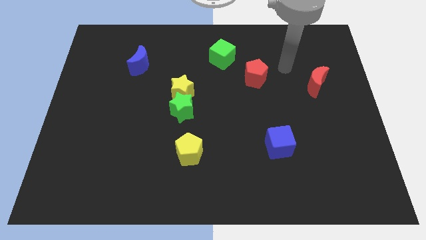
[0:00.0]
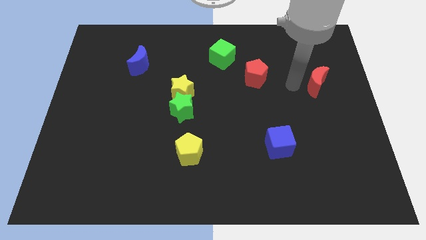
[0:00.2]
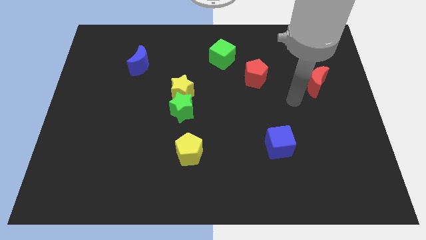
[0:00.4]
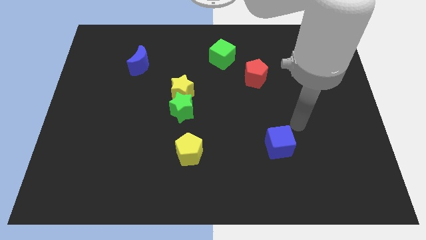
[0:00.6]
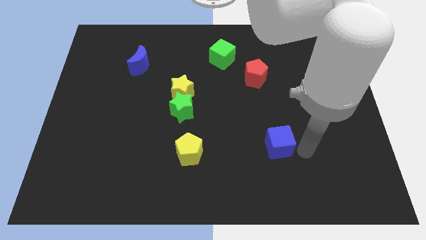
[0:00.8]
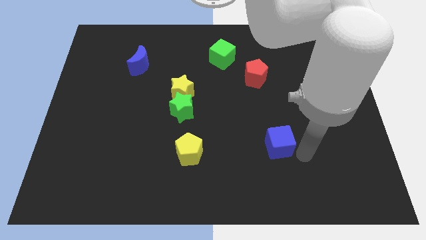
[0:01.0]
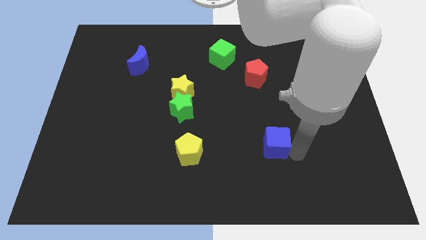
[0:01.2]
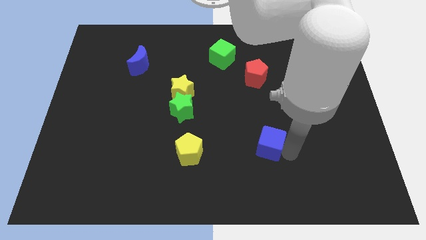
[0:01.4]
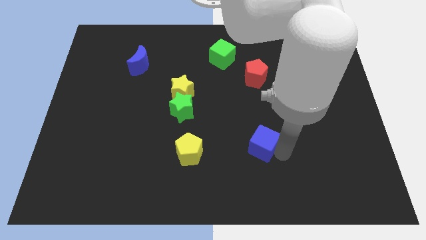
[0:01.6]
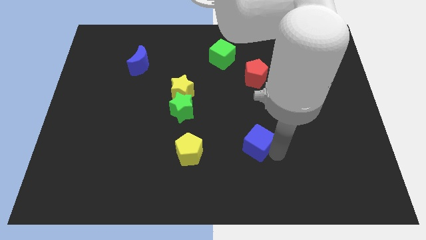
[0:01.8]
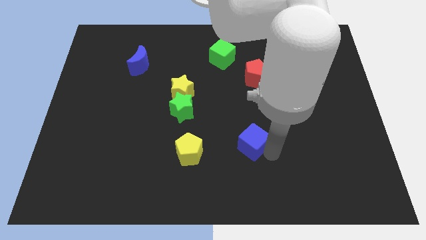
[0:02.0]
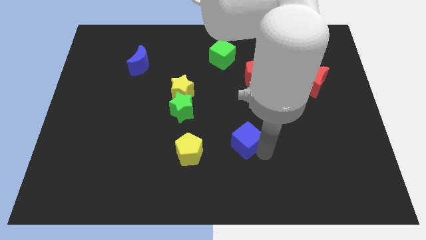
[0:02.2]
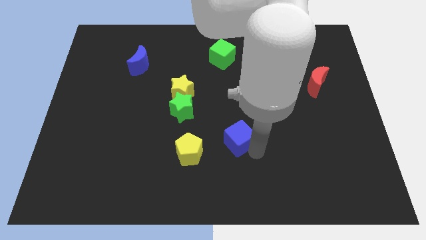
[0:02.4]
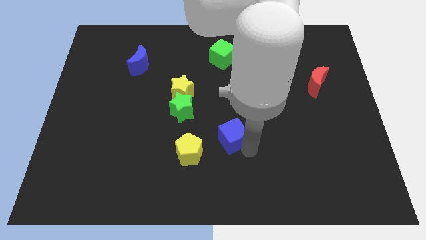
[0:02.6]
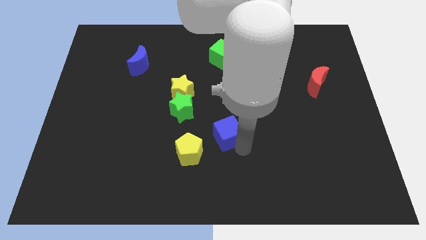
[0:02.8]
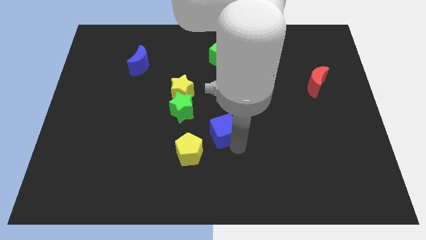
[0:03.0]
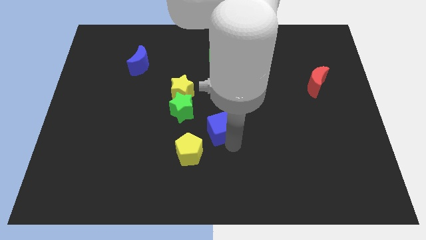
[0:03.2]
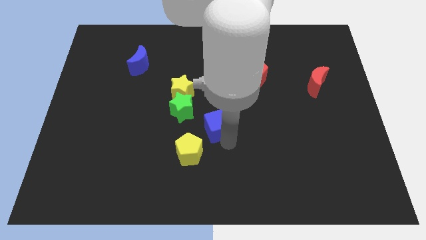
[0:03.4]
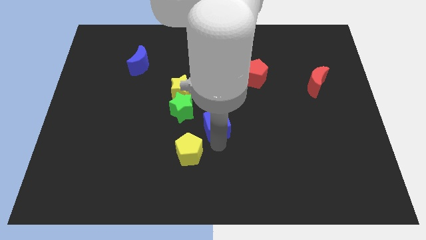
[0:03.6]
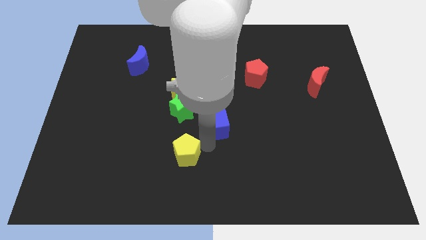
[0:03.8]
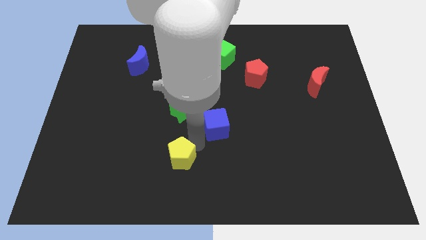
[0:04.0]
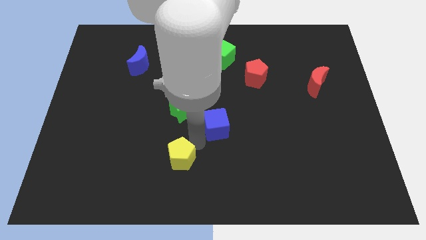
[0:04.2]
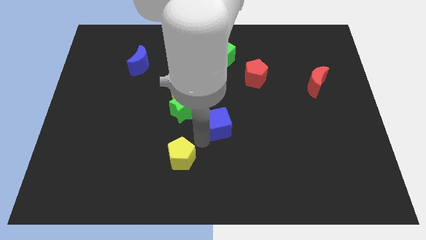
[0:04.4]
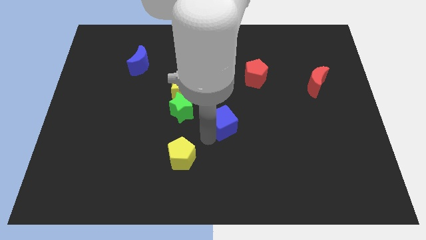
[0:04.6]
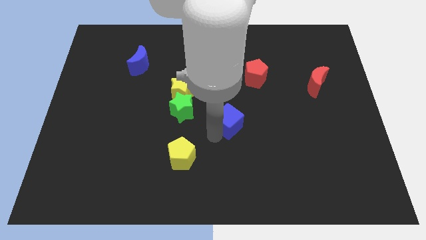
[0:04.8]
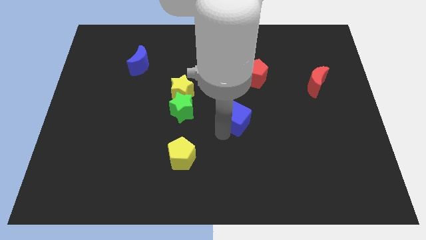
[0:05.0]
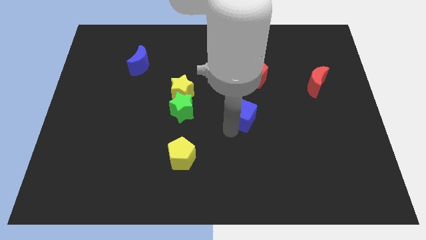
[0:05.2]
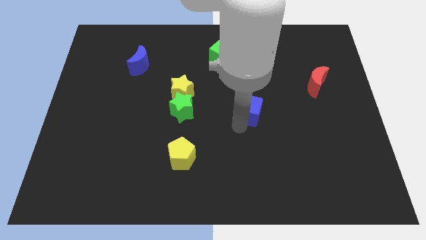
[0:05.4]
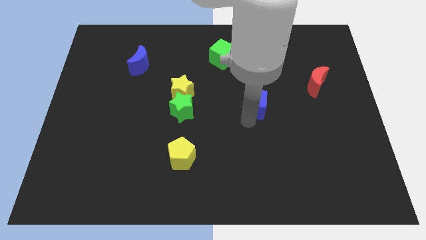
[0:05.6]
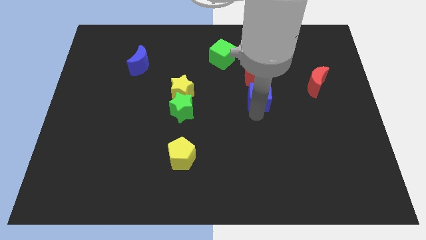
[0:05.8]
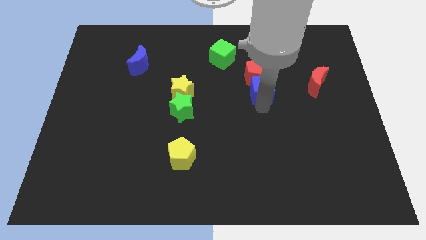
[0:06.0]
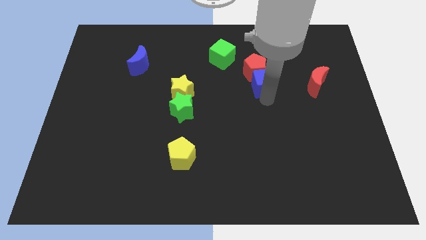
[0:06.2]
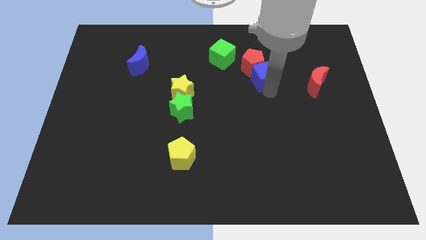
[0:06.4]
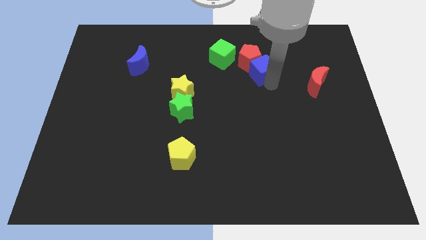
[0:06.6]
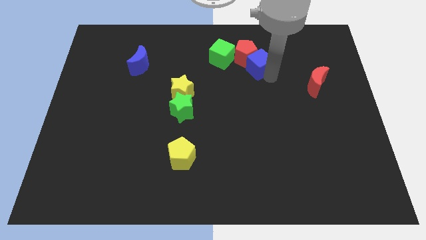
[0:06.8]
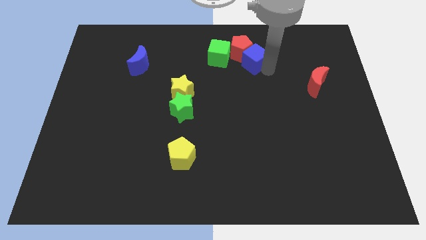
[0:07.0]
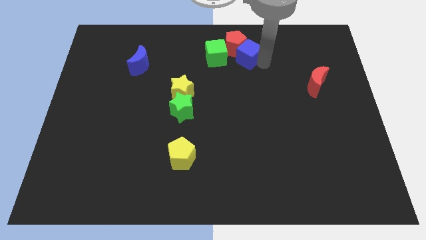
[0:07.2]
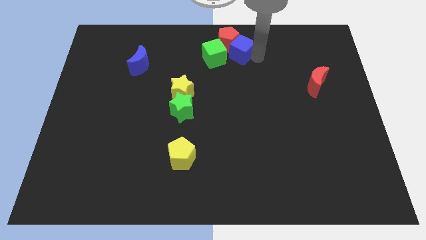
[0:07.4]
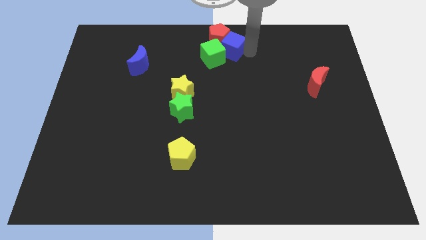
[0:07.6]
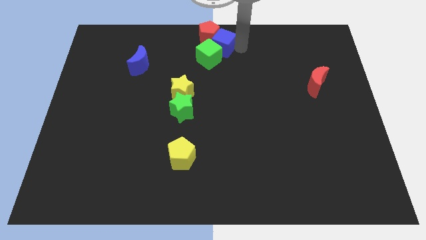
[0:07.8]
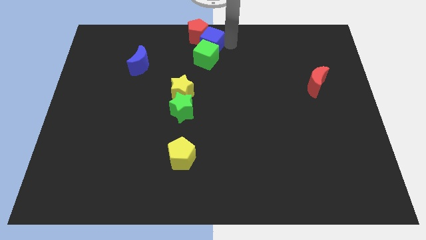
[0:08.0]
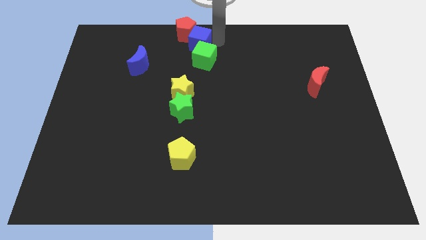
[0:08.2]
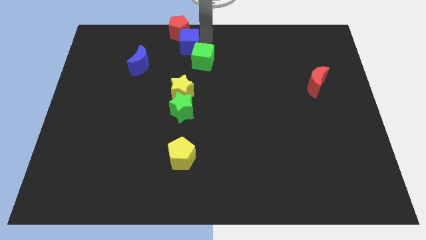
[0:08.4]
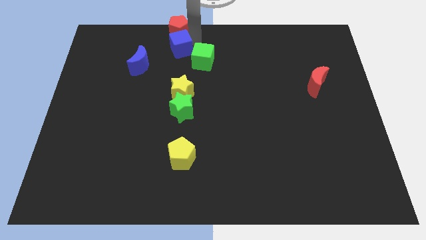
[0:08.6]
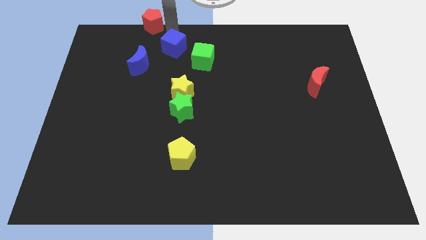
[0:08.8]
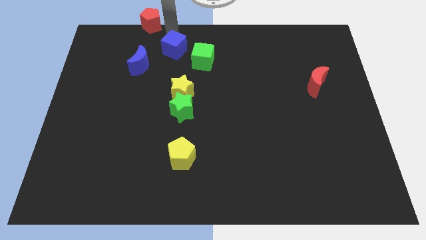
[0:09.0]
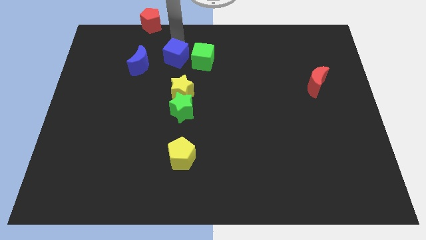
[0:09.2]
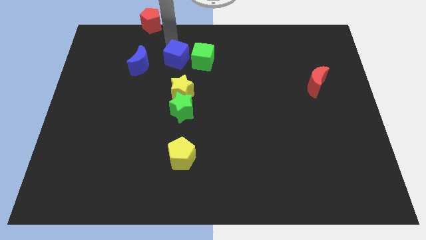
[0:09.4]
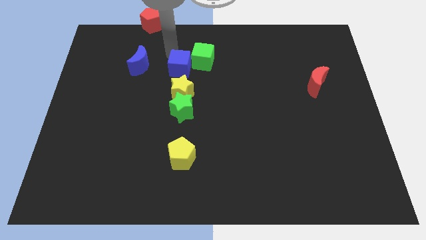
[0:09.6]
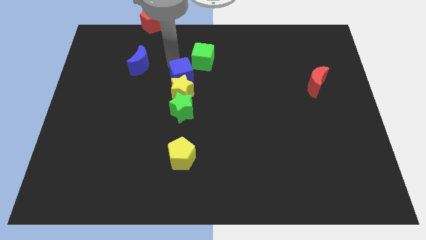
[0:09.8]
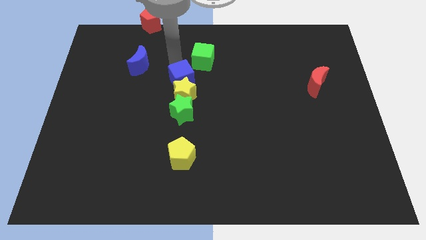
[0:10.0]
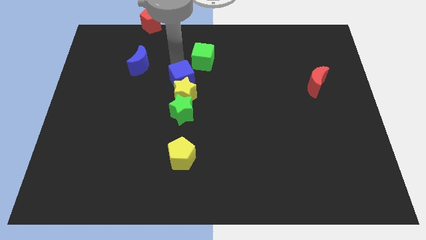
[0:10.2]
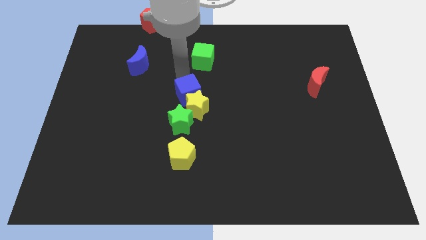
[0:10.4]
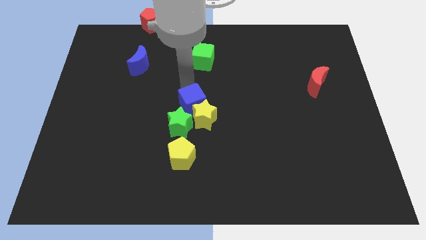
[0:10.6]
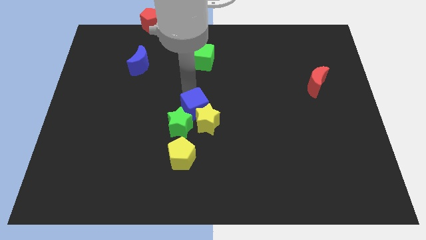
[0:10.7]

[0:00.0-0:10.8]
move the blue cube towards the green star

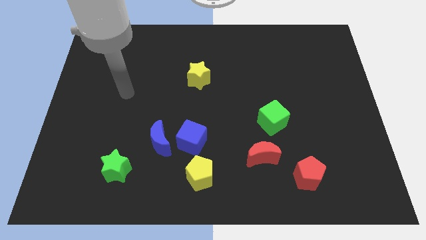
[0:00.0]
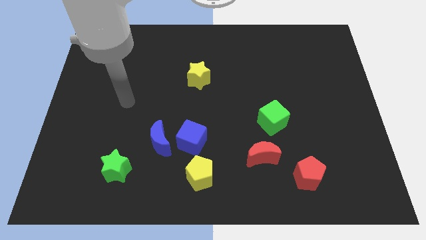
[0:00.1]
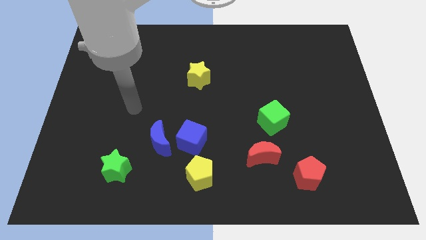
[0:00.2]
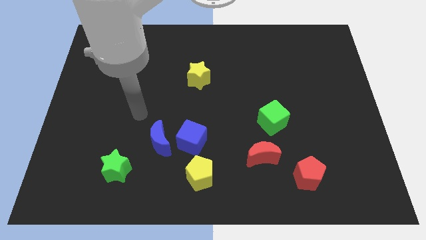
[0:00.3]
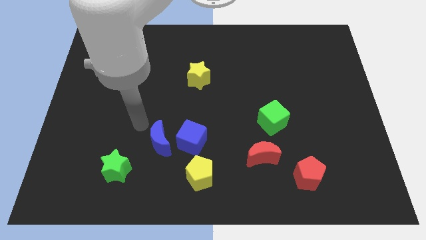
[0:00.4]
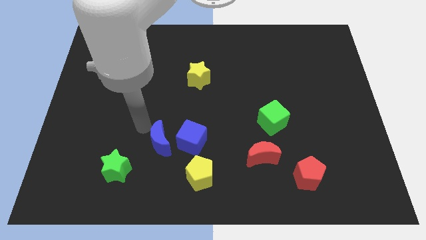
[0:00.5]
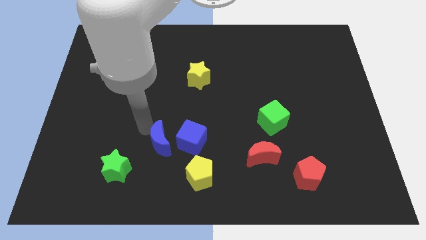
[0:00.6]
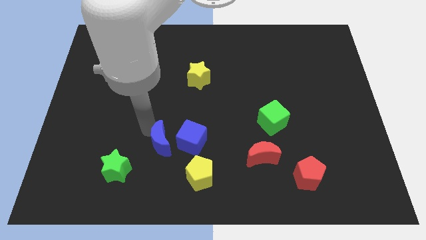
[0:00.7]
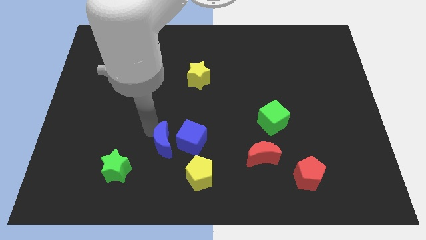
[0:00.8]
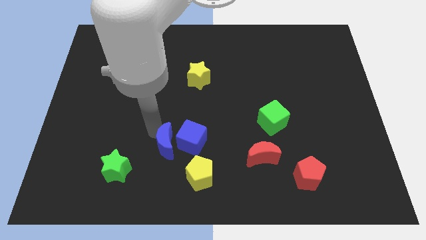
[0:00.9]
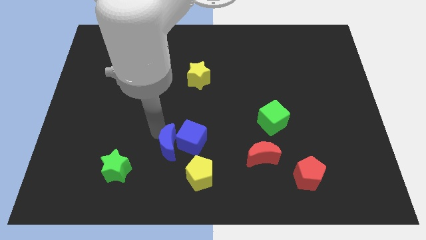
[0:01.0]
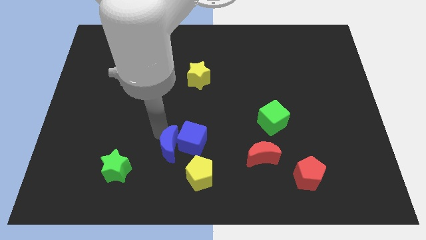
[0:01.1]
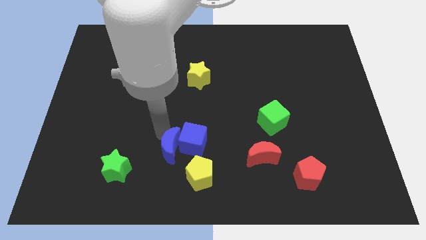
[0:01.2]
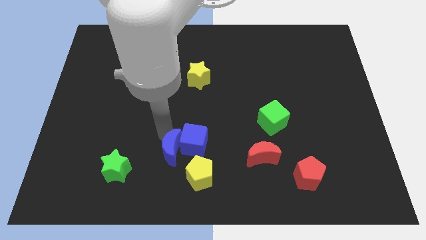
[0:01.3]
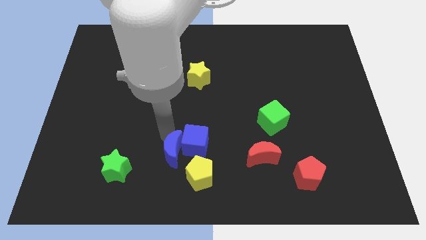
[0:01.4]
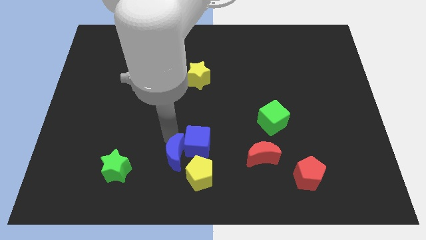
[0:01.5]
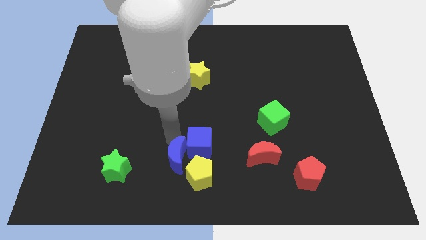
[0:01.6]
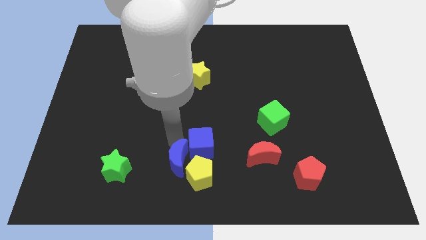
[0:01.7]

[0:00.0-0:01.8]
push the blue moon close to the yellow pentagon
